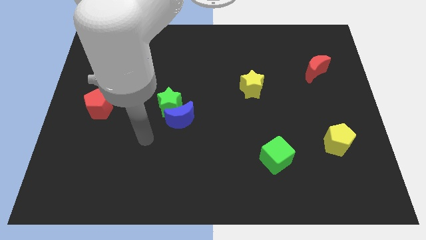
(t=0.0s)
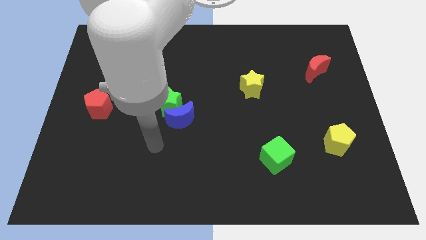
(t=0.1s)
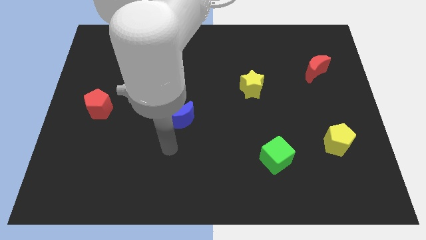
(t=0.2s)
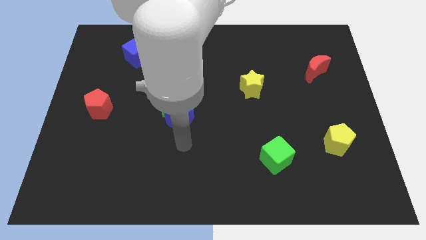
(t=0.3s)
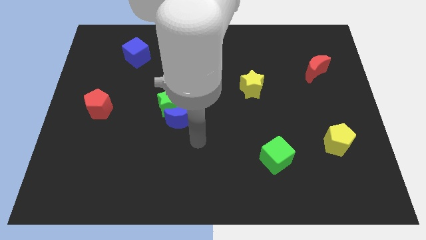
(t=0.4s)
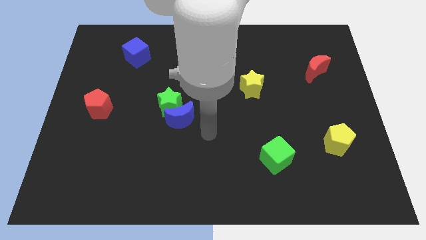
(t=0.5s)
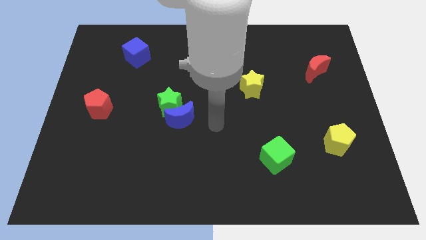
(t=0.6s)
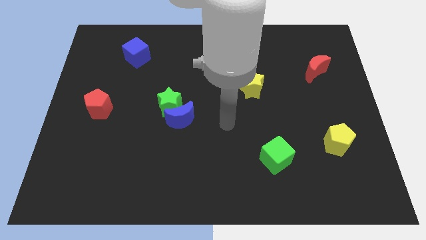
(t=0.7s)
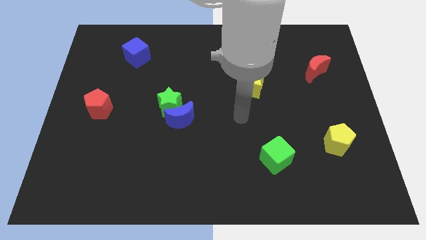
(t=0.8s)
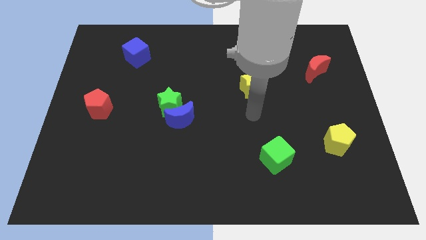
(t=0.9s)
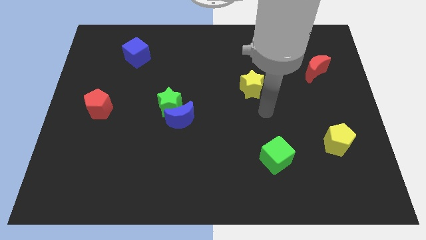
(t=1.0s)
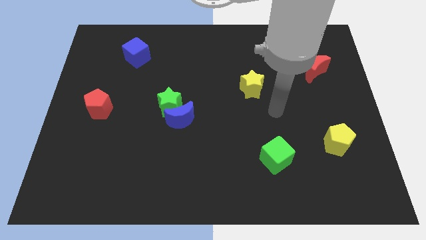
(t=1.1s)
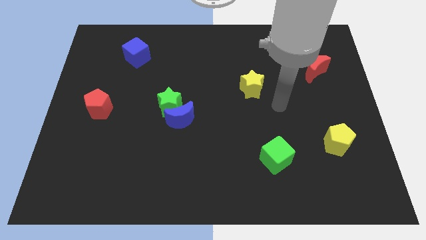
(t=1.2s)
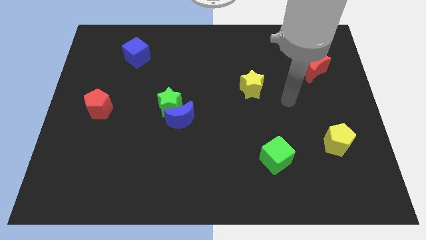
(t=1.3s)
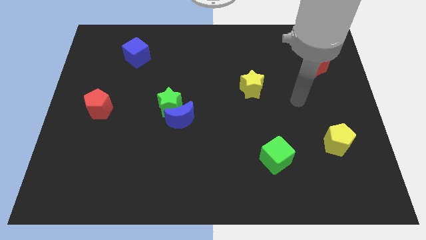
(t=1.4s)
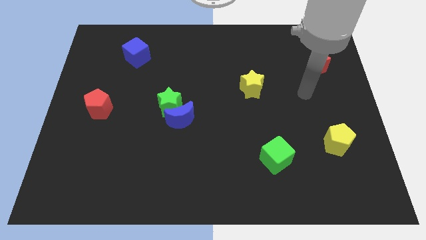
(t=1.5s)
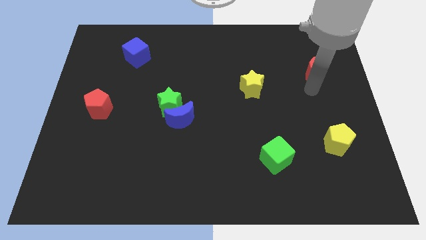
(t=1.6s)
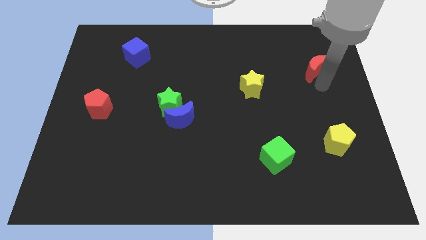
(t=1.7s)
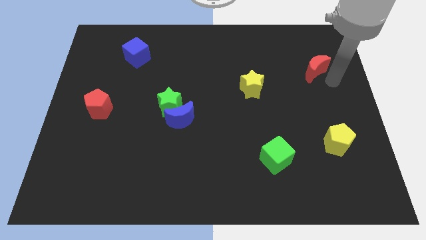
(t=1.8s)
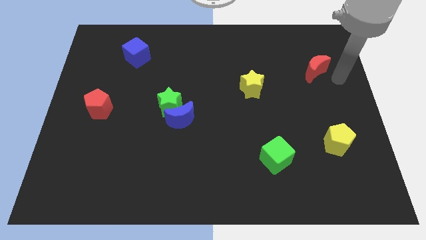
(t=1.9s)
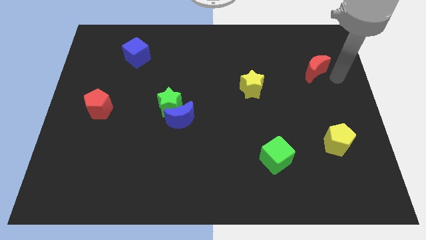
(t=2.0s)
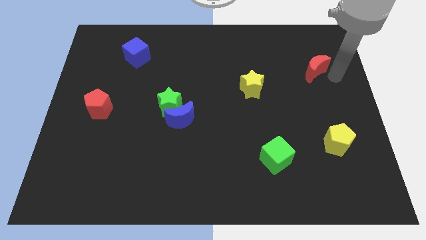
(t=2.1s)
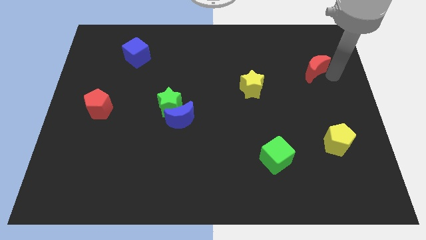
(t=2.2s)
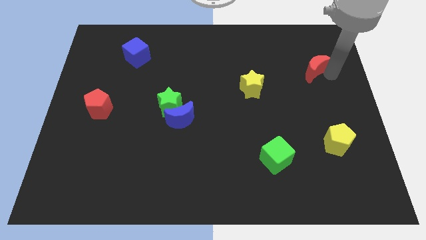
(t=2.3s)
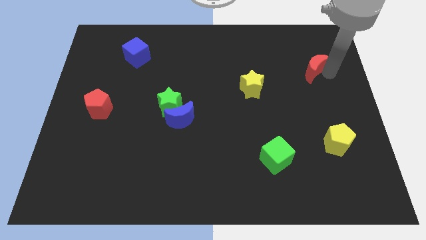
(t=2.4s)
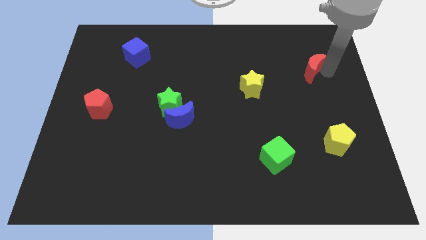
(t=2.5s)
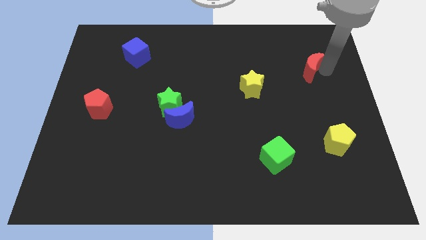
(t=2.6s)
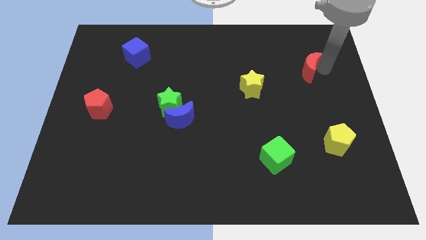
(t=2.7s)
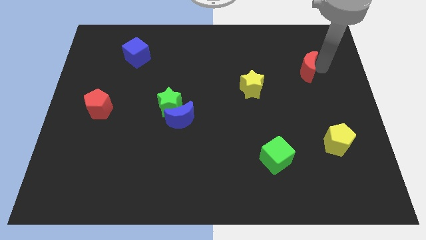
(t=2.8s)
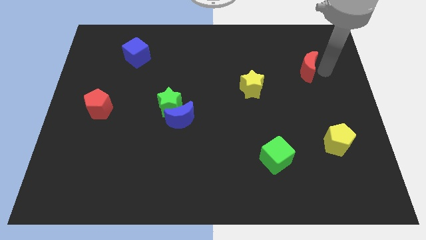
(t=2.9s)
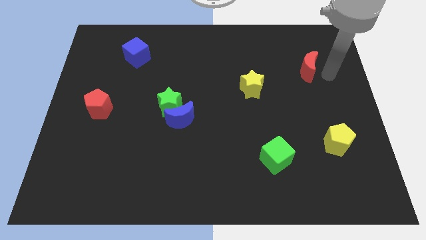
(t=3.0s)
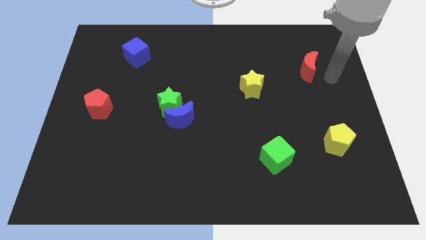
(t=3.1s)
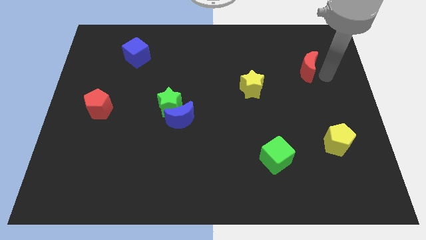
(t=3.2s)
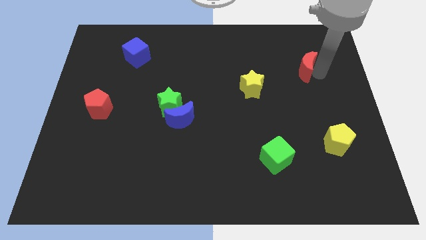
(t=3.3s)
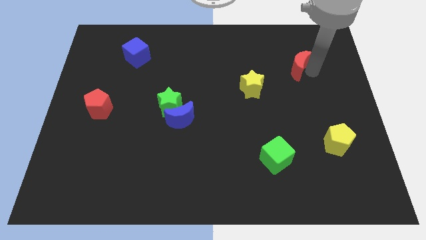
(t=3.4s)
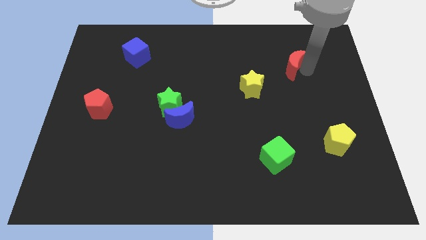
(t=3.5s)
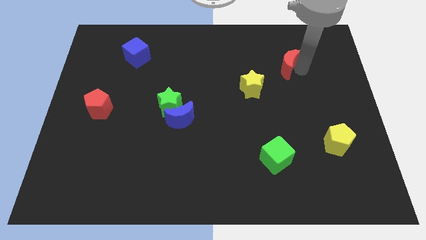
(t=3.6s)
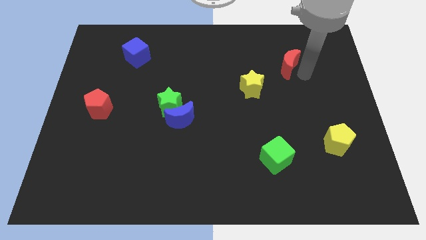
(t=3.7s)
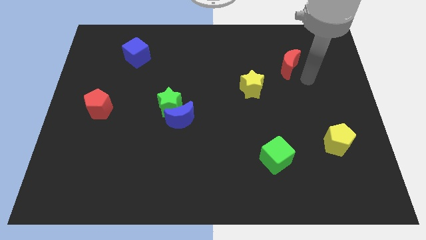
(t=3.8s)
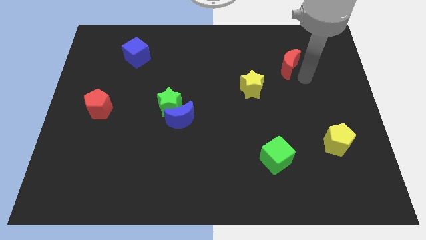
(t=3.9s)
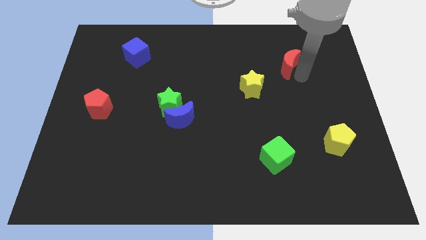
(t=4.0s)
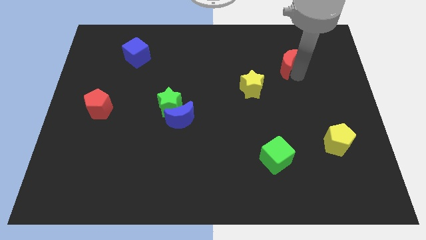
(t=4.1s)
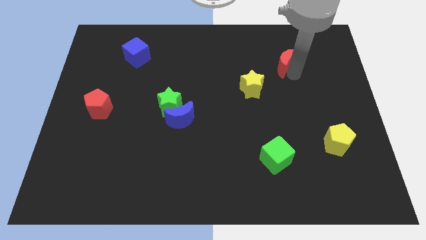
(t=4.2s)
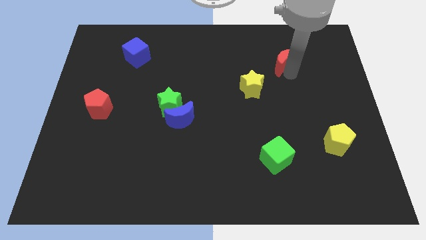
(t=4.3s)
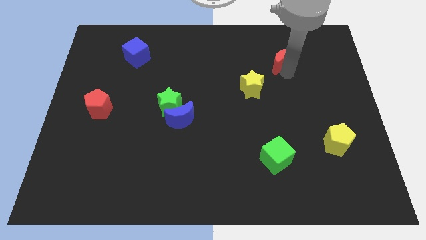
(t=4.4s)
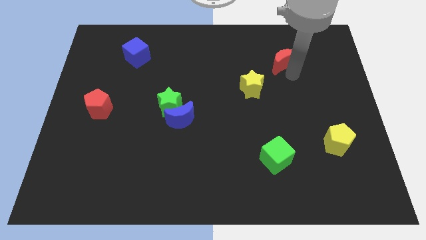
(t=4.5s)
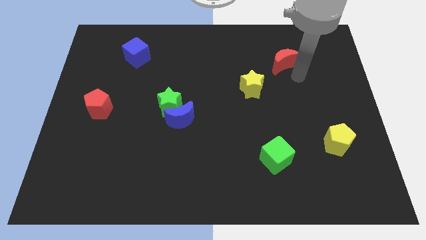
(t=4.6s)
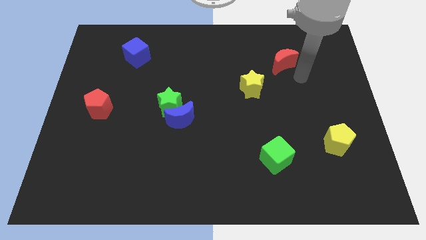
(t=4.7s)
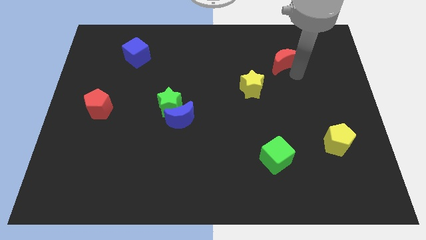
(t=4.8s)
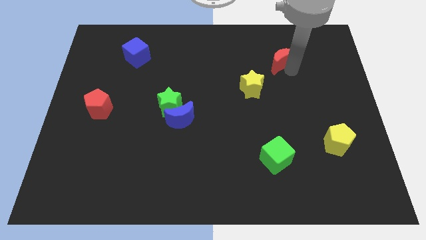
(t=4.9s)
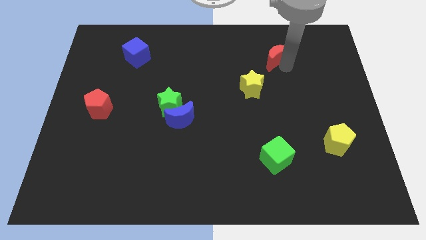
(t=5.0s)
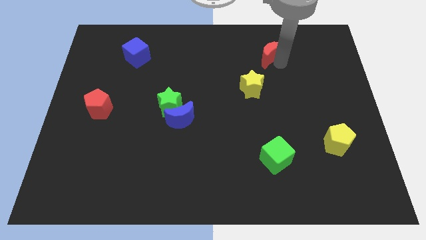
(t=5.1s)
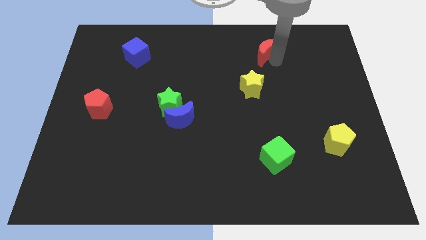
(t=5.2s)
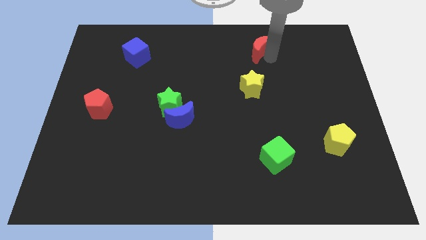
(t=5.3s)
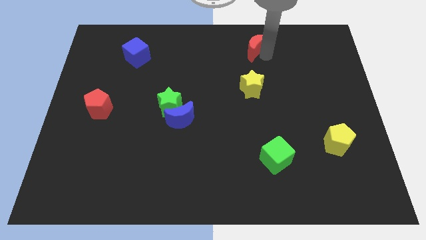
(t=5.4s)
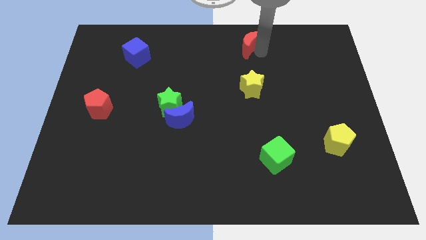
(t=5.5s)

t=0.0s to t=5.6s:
push the red moon to the towards your base
